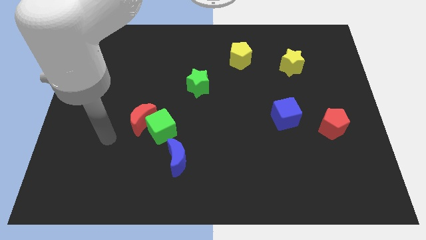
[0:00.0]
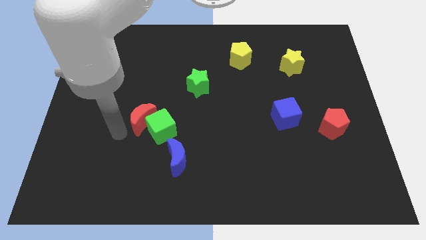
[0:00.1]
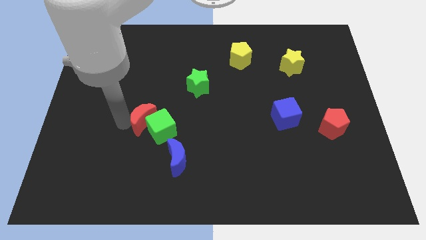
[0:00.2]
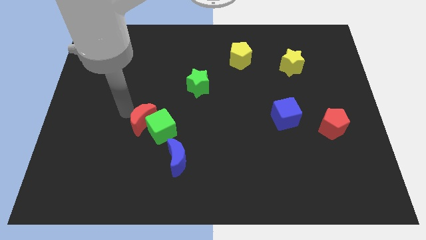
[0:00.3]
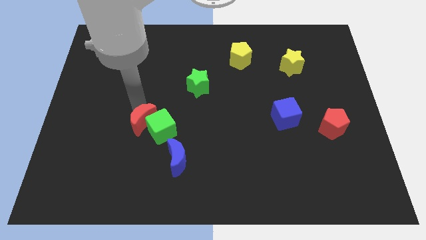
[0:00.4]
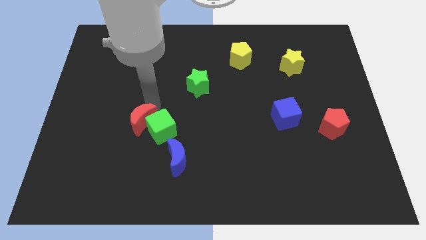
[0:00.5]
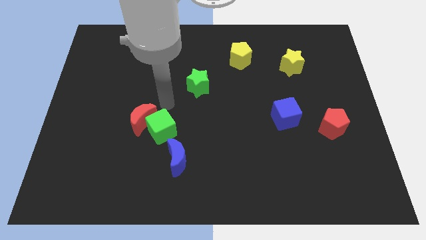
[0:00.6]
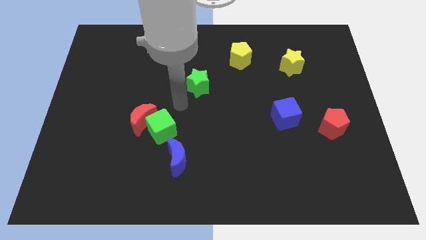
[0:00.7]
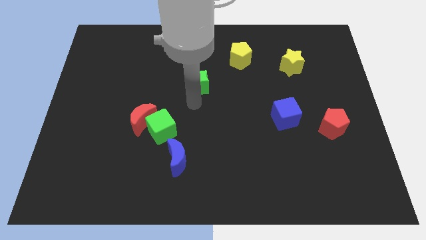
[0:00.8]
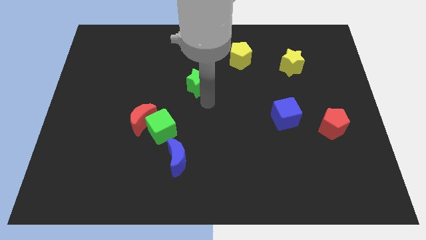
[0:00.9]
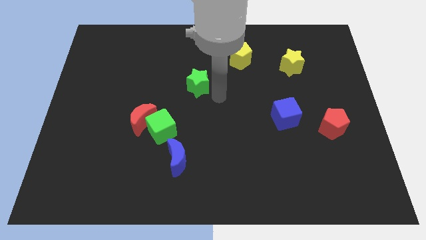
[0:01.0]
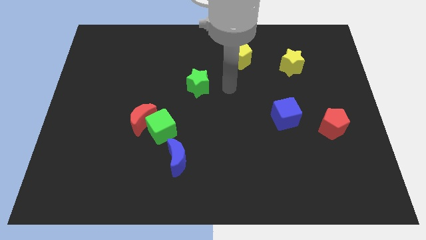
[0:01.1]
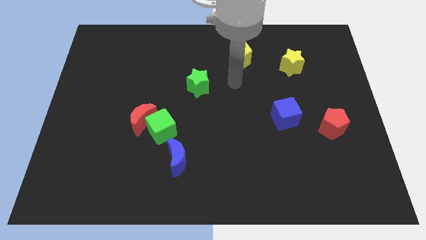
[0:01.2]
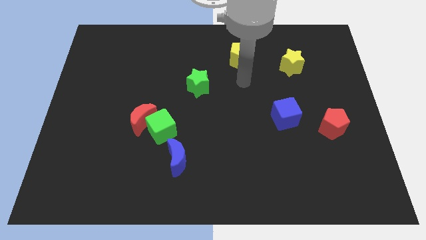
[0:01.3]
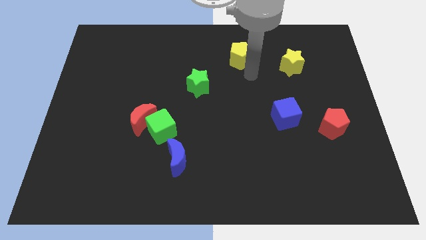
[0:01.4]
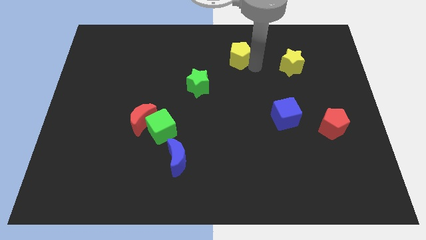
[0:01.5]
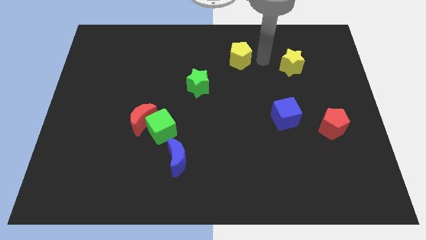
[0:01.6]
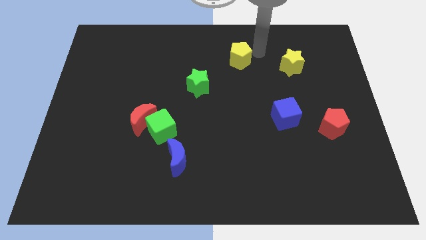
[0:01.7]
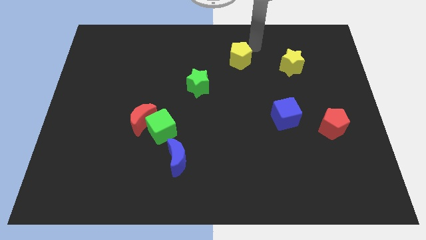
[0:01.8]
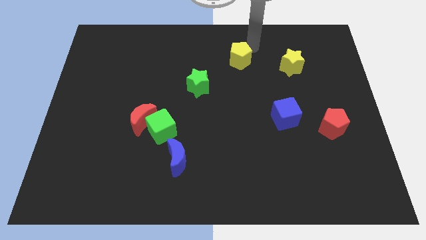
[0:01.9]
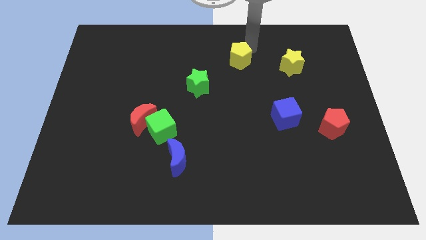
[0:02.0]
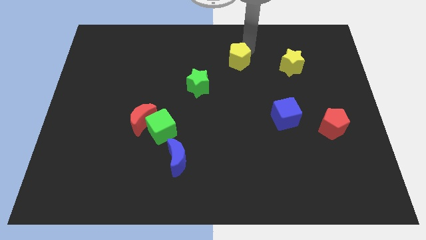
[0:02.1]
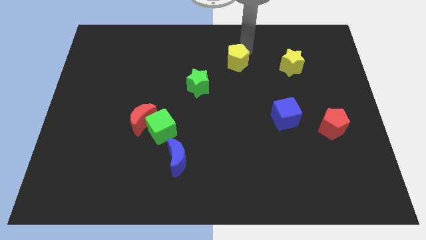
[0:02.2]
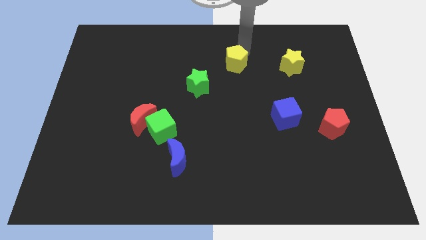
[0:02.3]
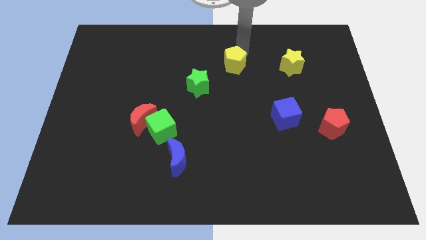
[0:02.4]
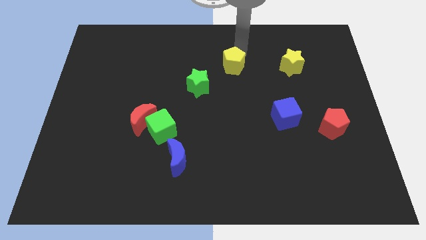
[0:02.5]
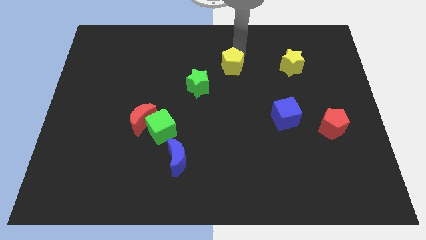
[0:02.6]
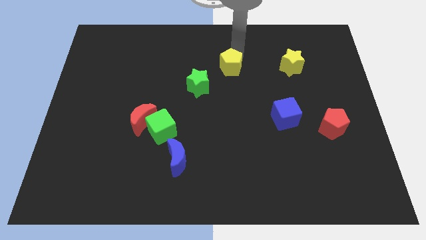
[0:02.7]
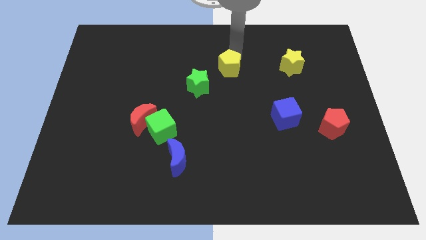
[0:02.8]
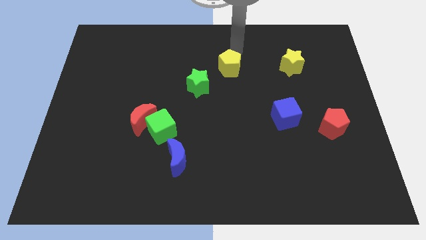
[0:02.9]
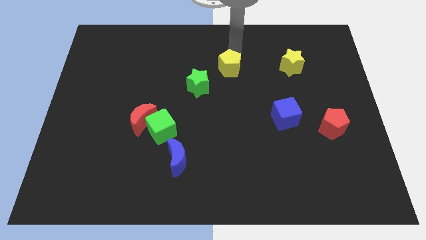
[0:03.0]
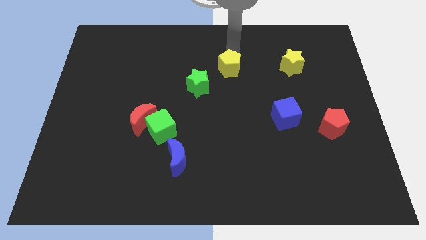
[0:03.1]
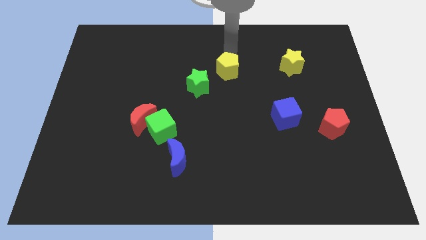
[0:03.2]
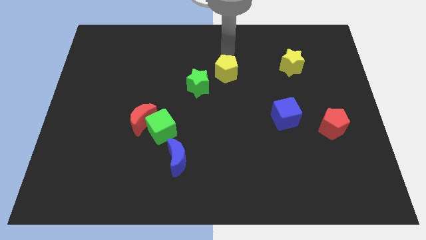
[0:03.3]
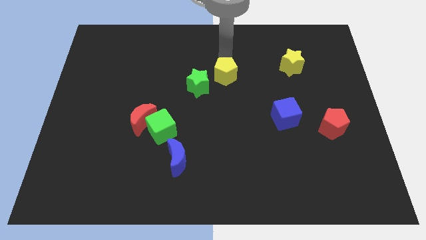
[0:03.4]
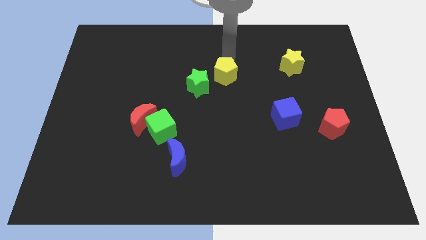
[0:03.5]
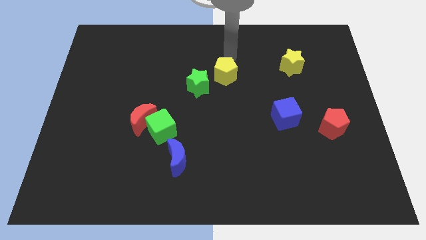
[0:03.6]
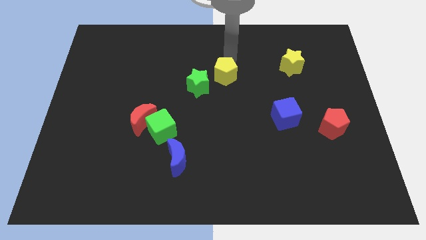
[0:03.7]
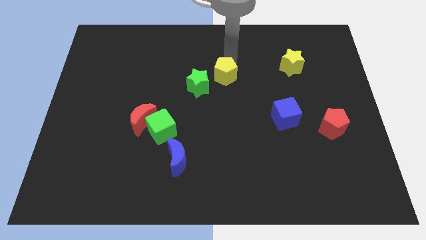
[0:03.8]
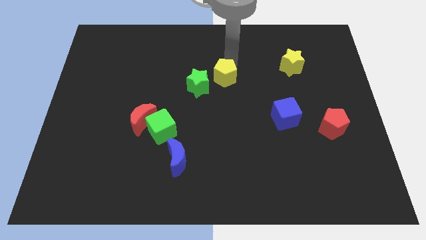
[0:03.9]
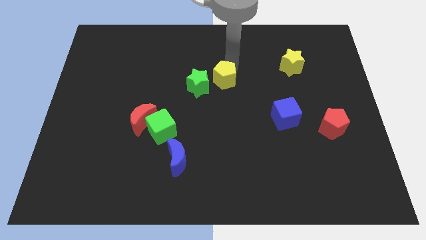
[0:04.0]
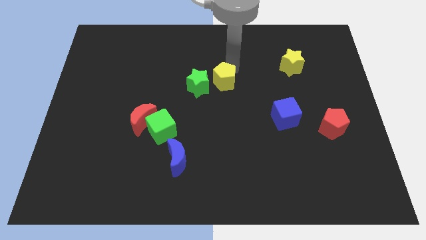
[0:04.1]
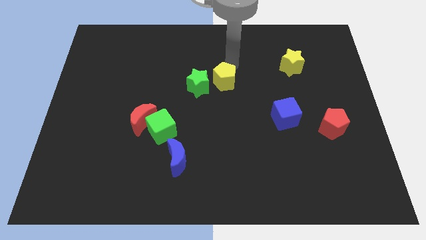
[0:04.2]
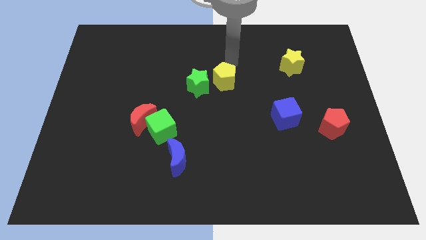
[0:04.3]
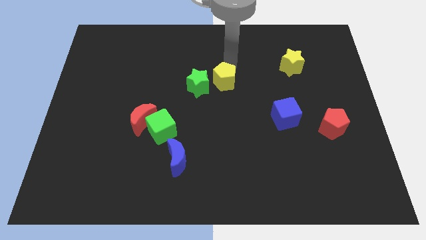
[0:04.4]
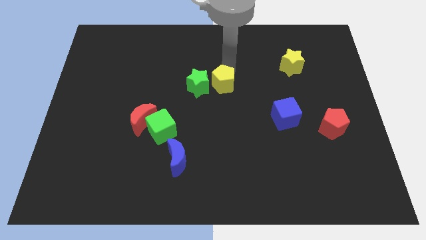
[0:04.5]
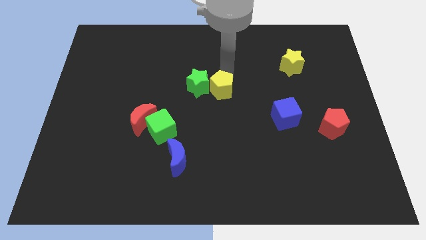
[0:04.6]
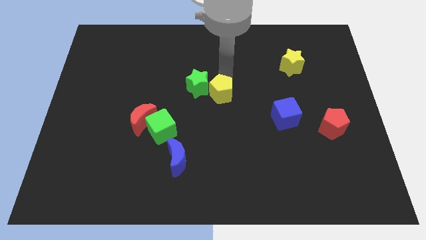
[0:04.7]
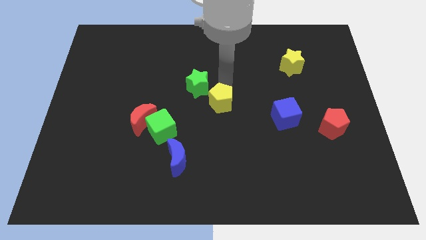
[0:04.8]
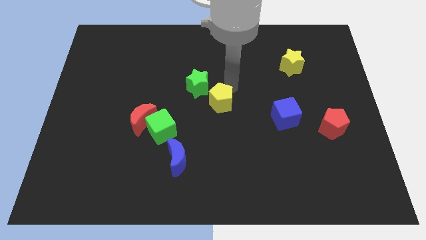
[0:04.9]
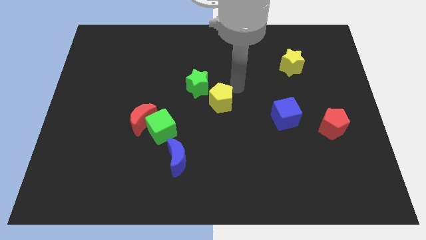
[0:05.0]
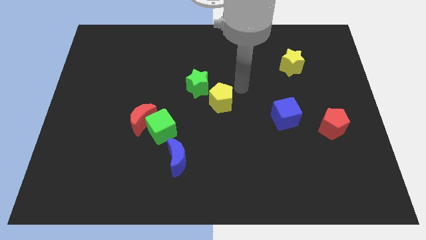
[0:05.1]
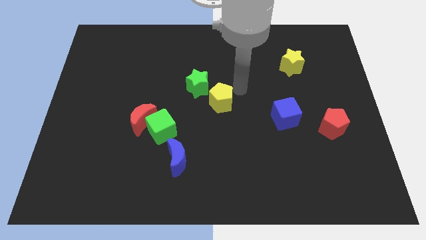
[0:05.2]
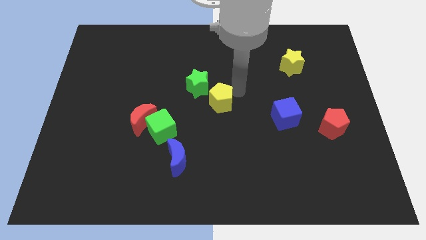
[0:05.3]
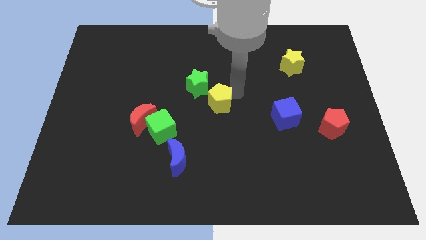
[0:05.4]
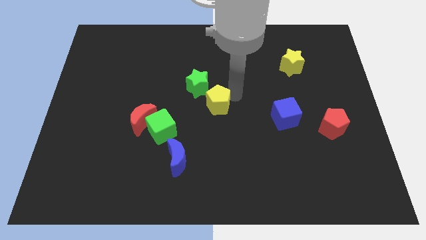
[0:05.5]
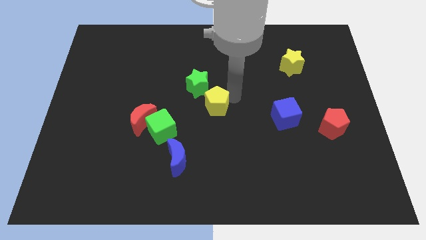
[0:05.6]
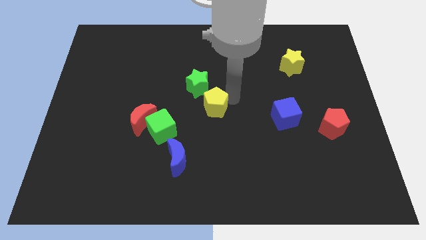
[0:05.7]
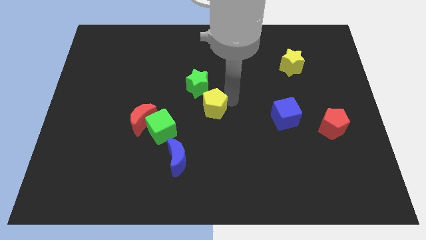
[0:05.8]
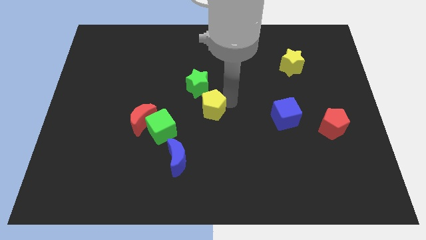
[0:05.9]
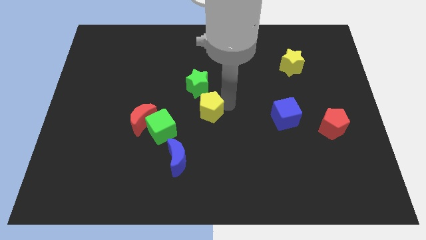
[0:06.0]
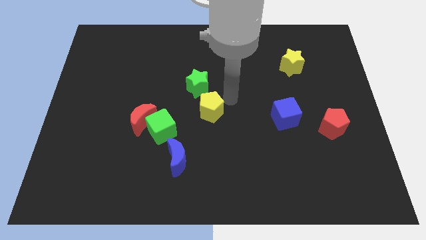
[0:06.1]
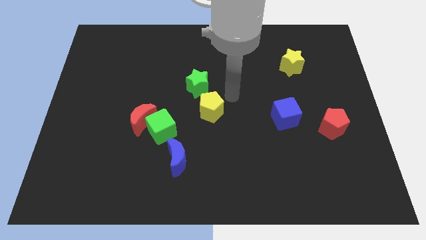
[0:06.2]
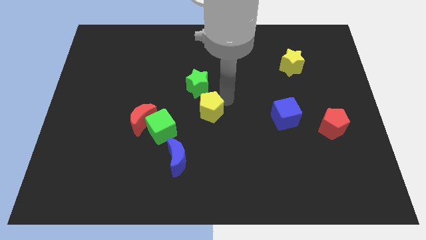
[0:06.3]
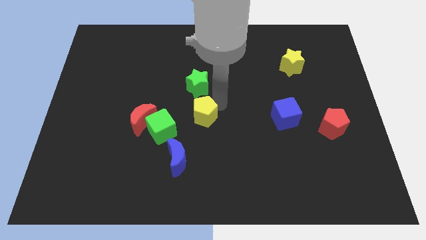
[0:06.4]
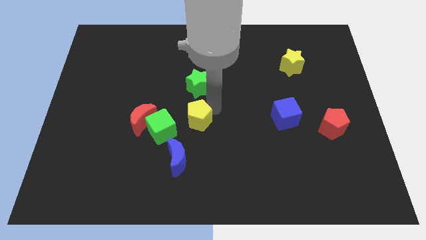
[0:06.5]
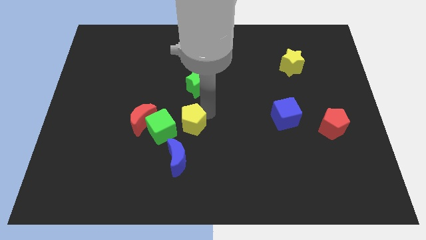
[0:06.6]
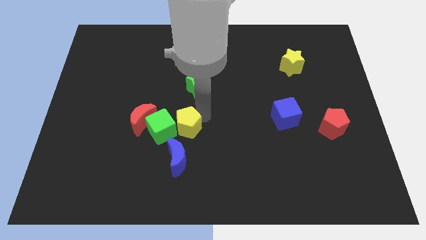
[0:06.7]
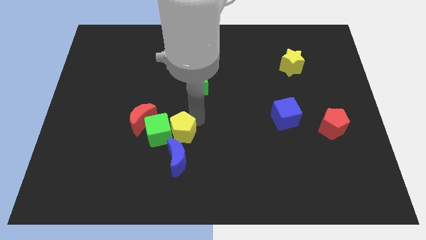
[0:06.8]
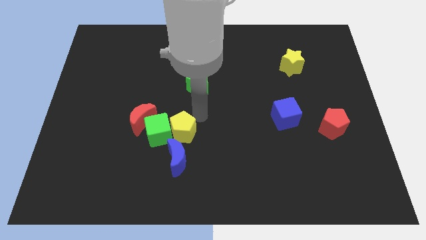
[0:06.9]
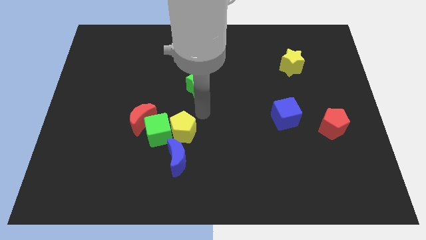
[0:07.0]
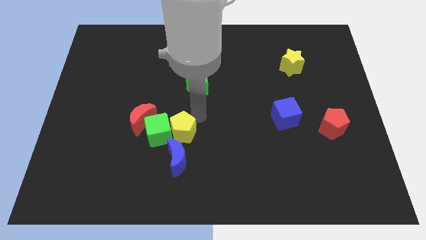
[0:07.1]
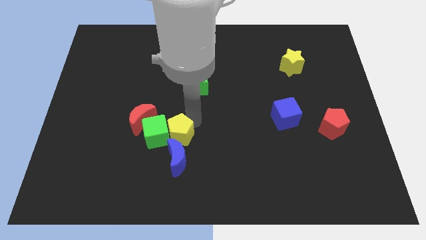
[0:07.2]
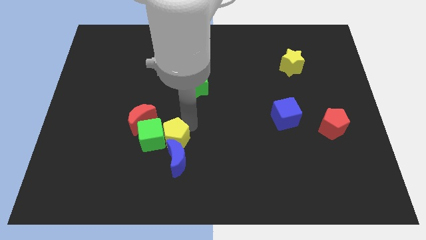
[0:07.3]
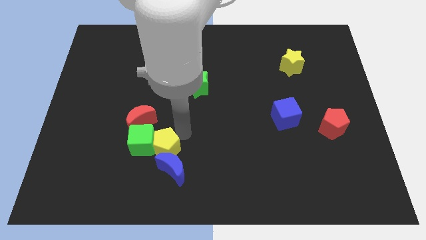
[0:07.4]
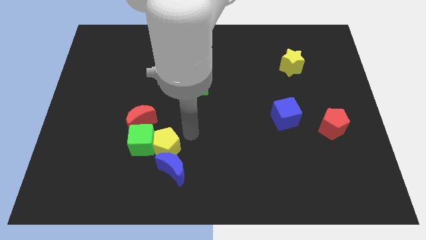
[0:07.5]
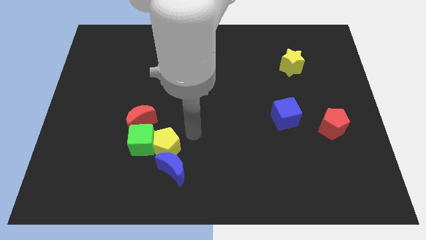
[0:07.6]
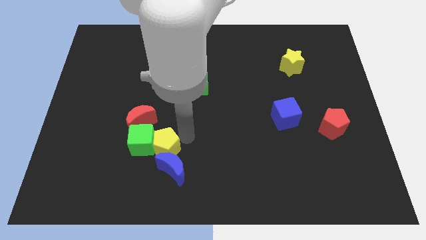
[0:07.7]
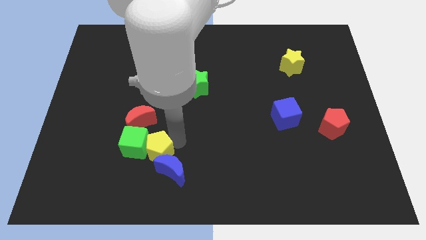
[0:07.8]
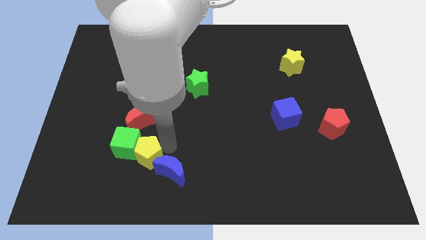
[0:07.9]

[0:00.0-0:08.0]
push the yellow pentagon left of the blue moon
